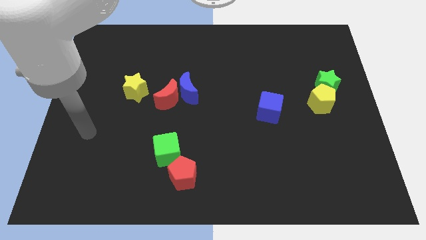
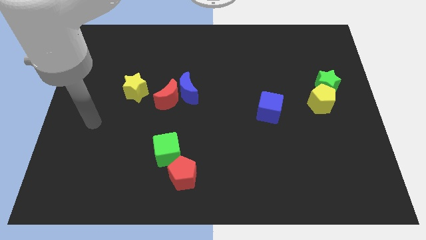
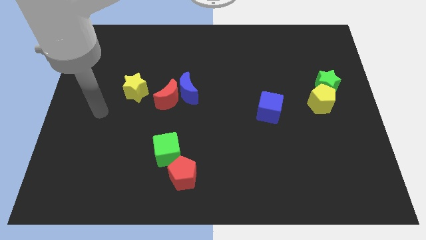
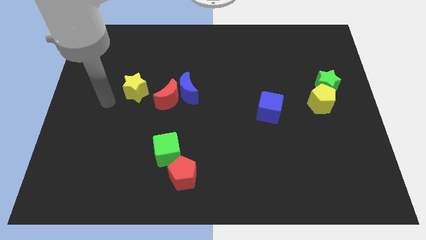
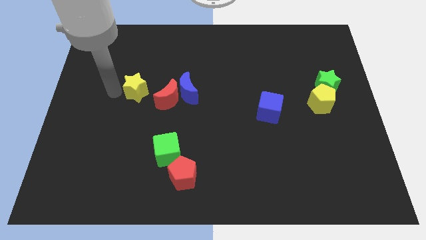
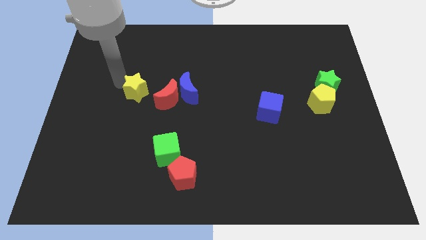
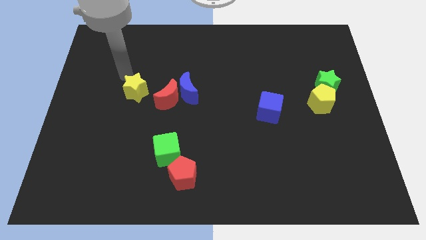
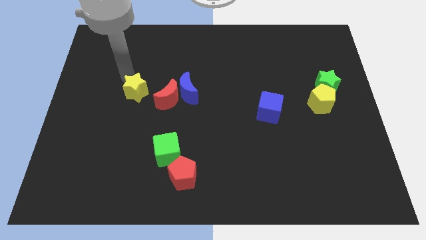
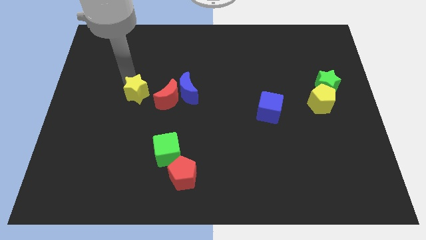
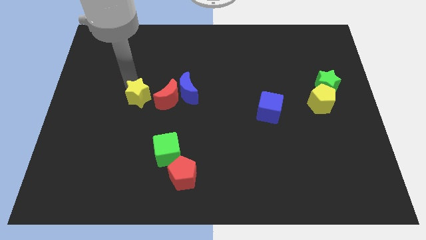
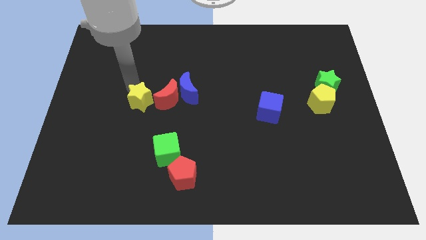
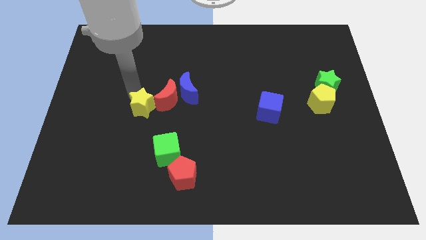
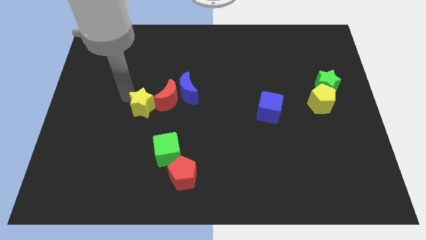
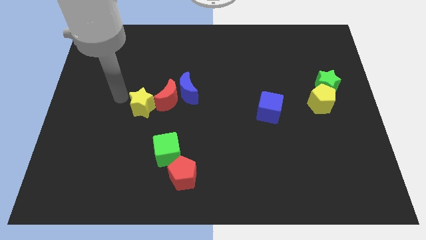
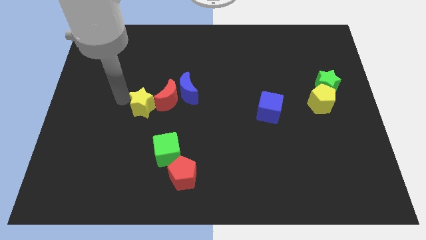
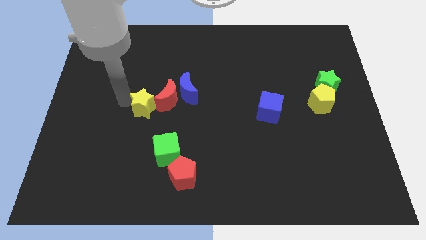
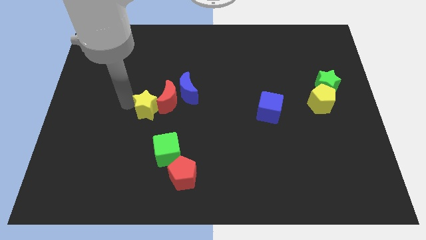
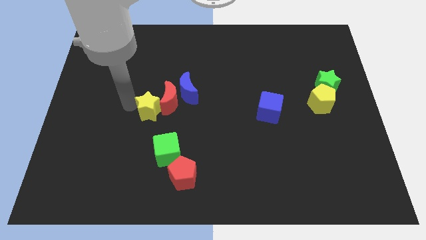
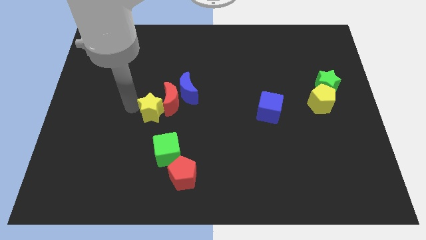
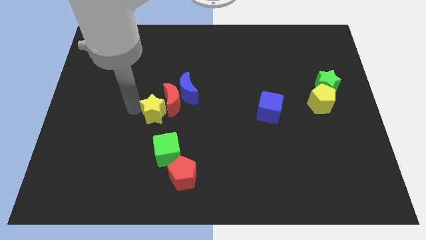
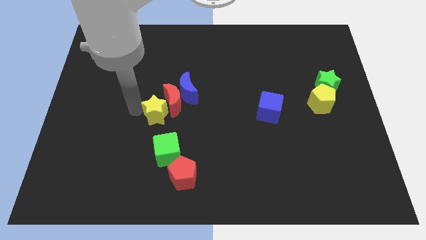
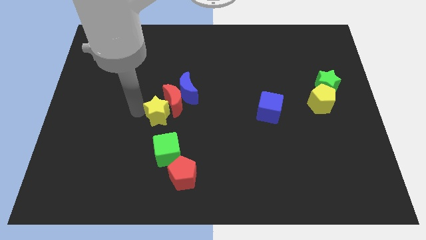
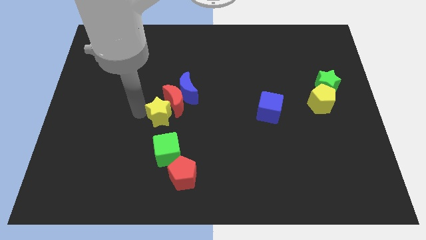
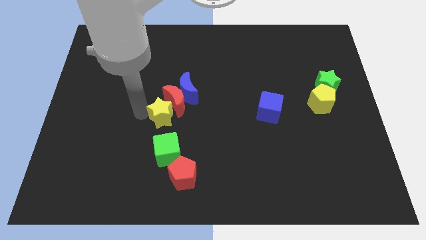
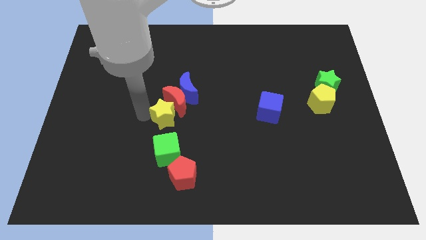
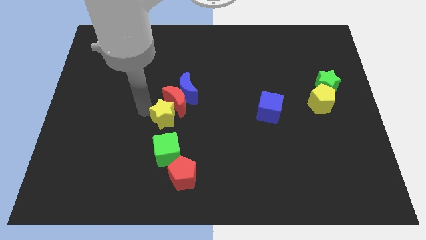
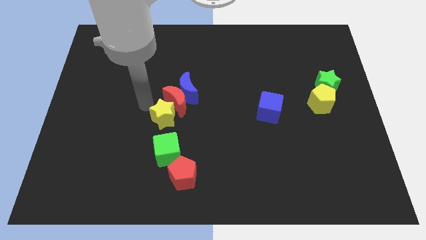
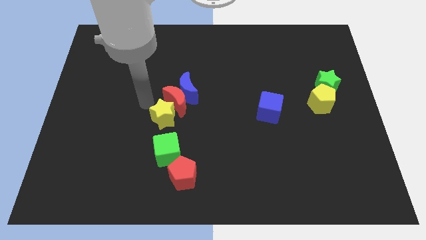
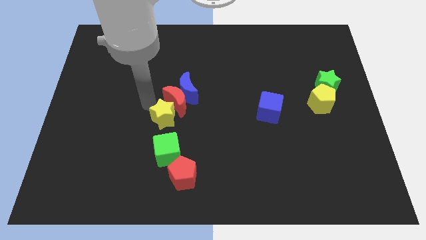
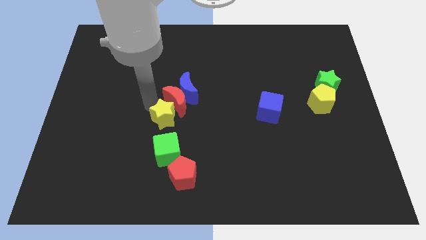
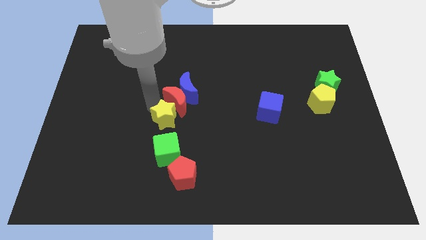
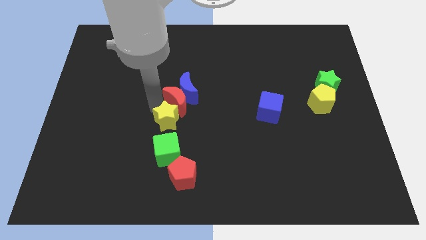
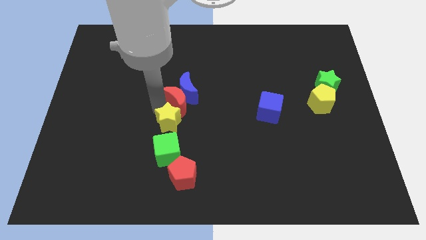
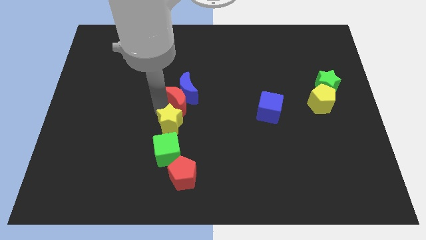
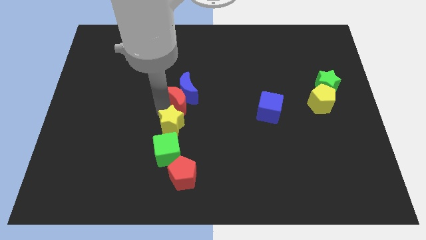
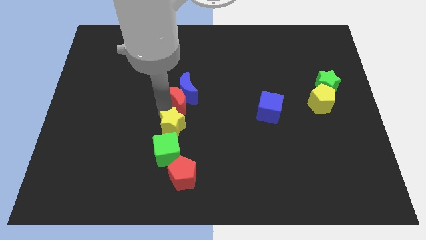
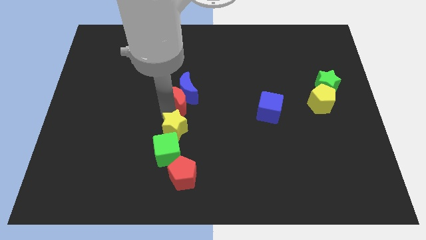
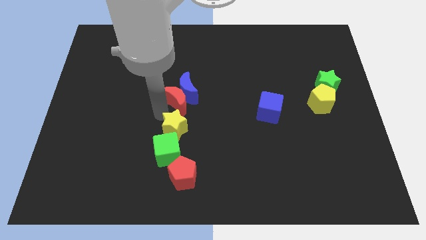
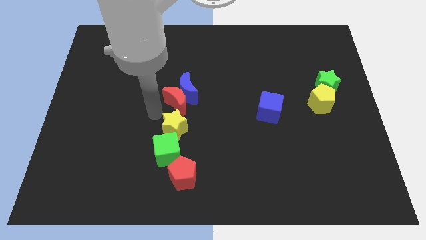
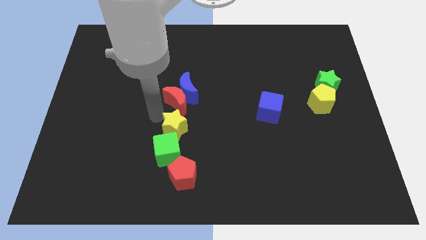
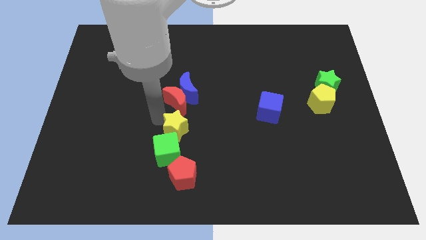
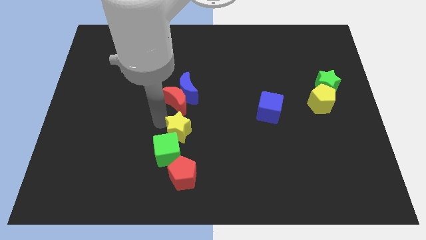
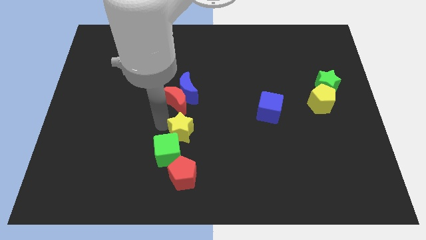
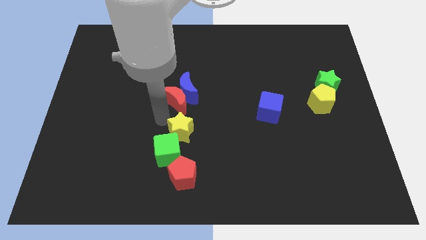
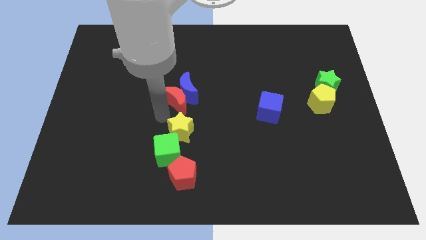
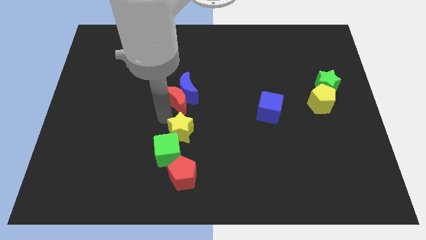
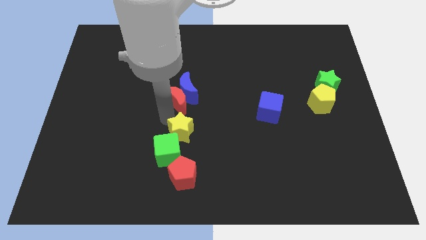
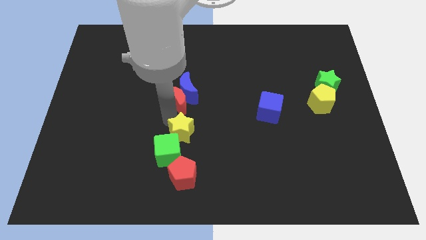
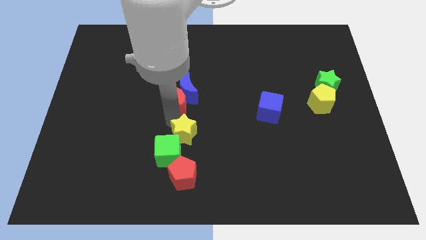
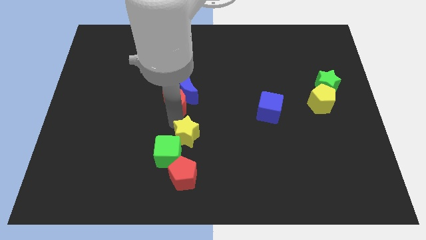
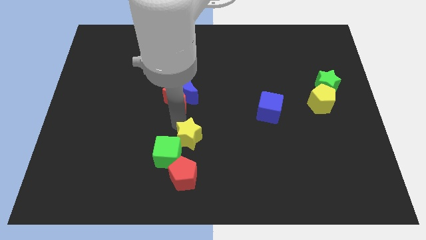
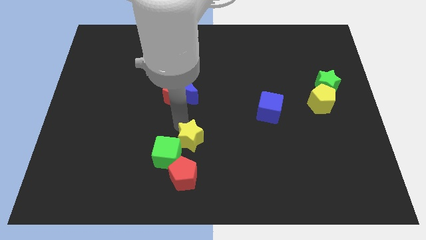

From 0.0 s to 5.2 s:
move the yellow star downwards and then to the right

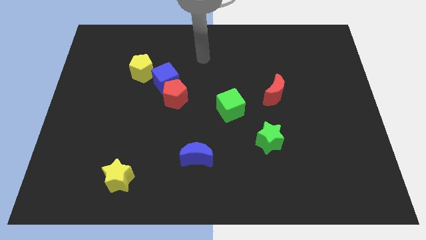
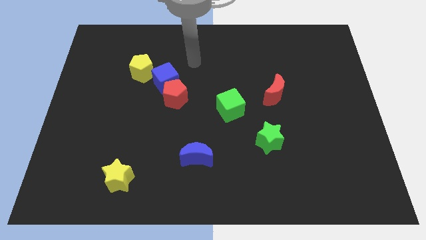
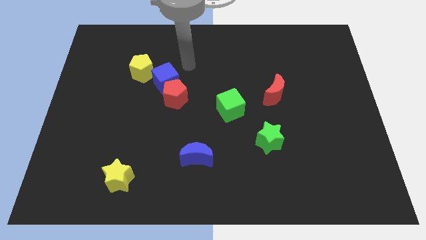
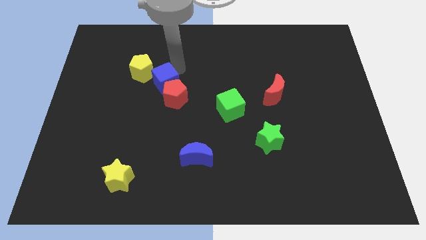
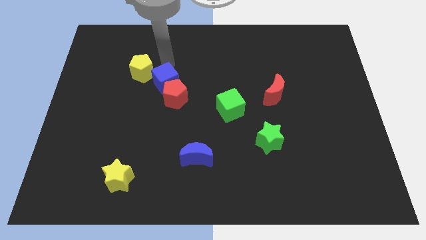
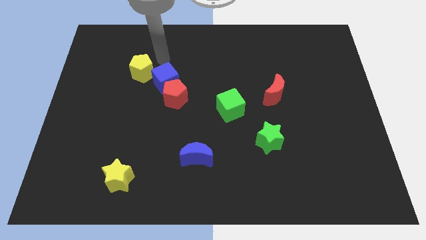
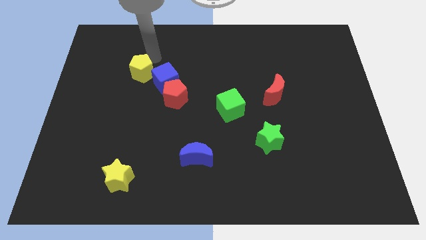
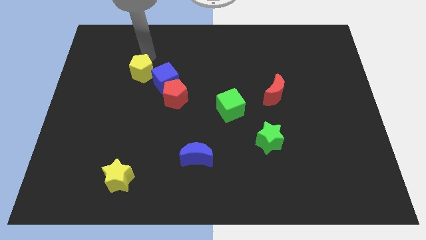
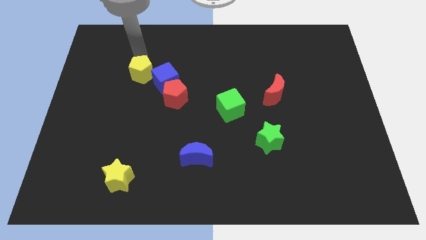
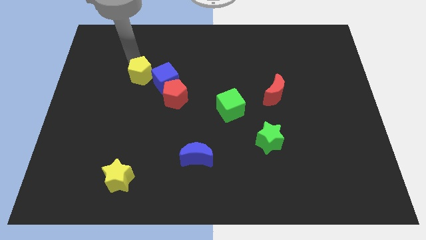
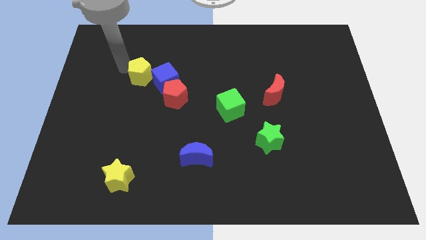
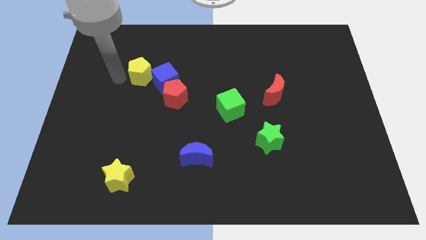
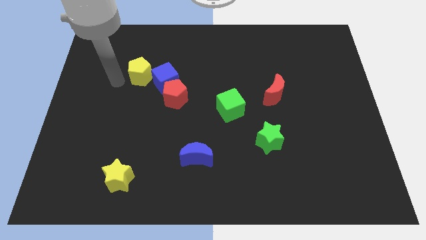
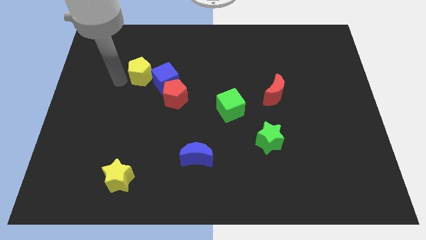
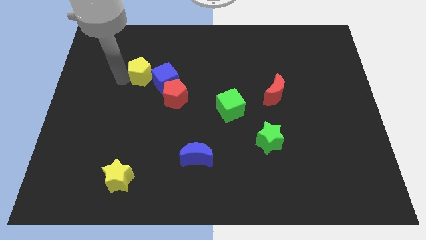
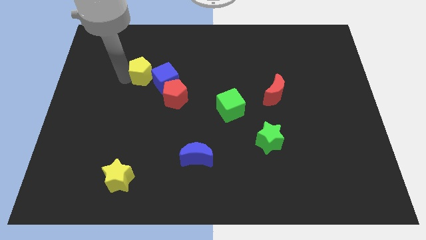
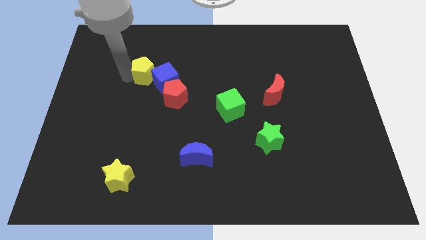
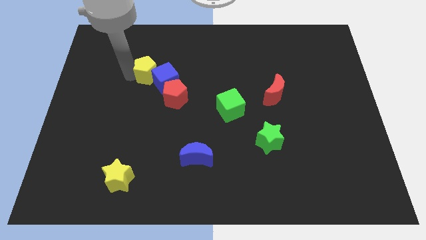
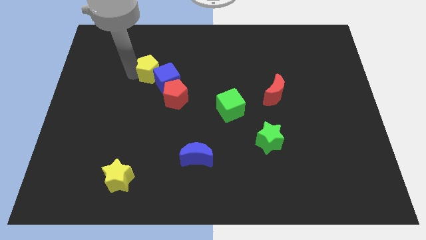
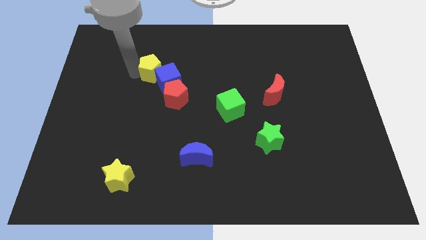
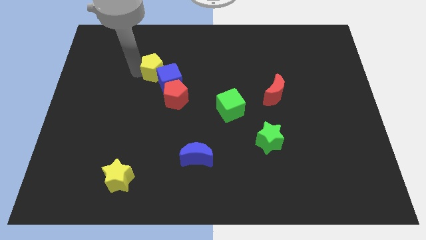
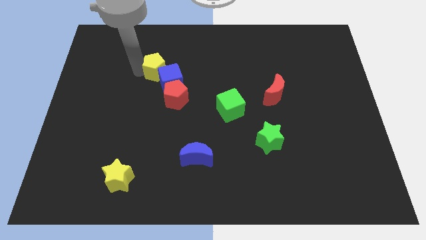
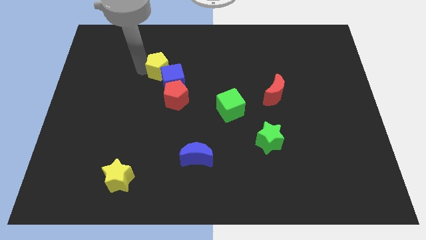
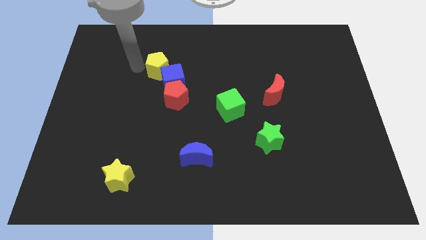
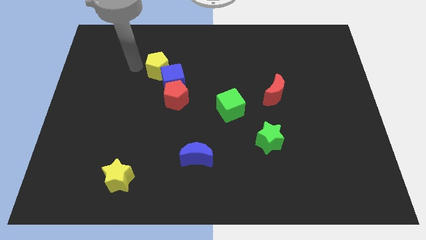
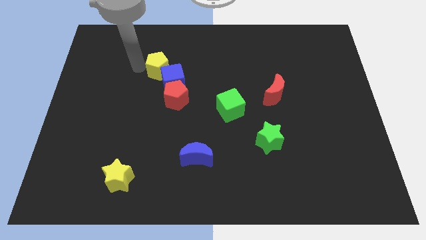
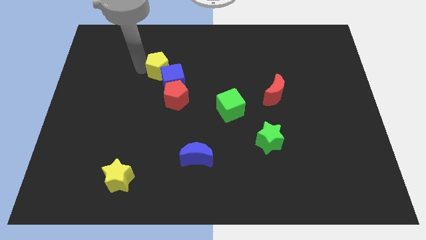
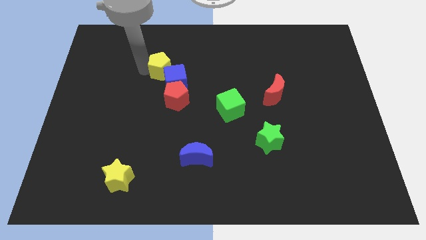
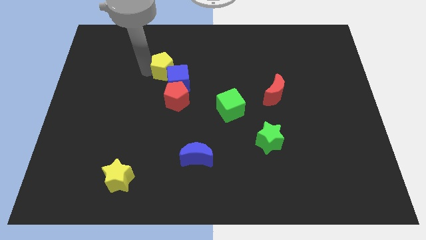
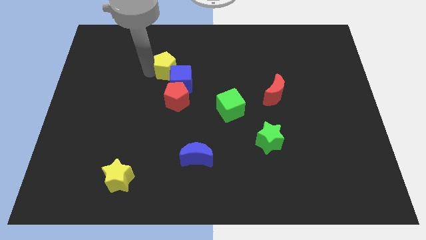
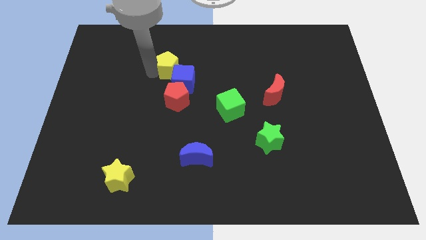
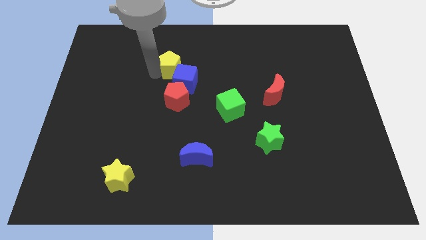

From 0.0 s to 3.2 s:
slide the yellow pentagon somewhat to the right
